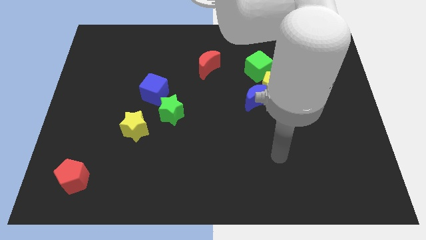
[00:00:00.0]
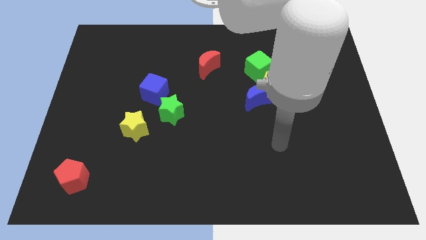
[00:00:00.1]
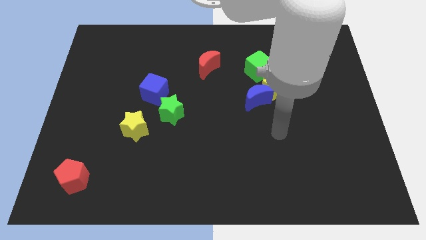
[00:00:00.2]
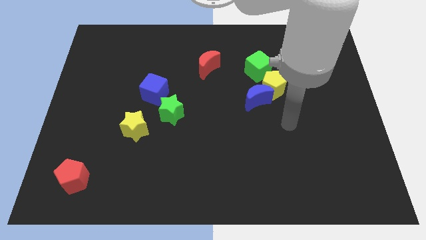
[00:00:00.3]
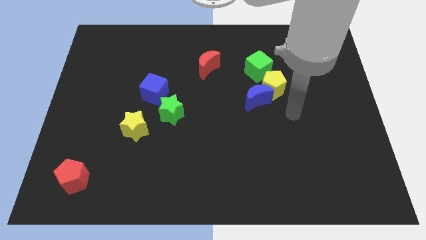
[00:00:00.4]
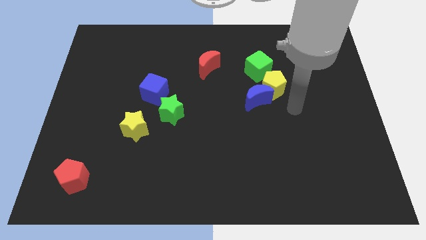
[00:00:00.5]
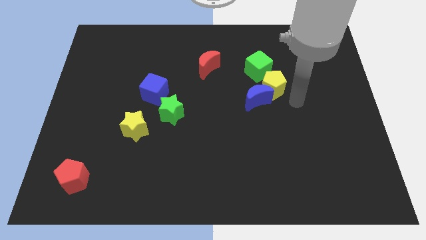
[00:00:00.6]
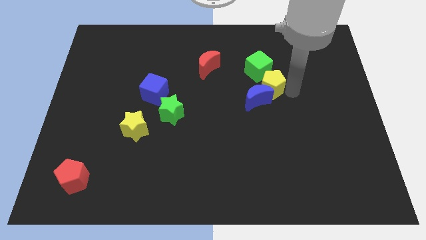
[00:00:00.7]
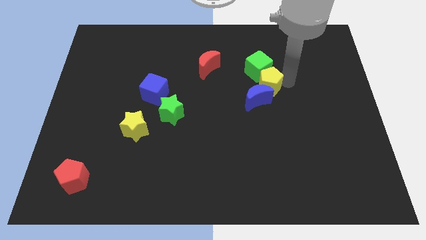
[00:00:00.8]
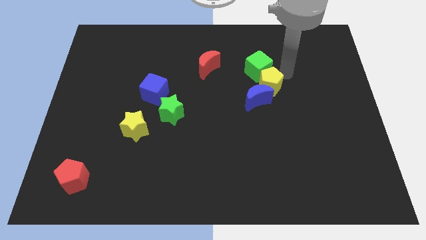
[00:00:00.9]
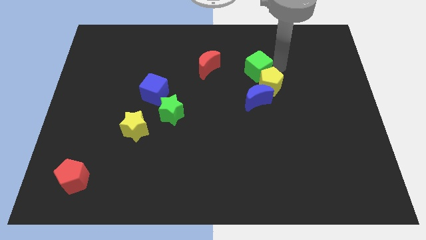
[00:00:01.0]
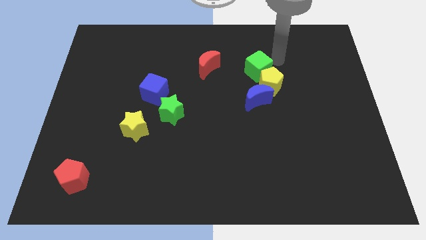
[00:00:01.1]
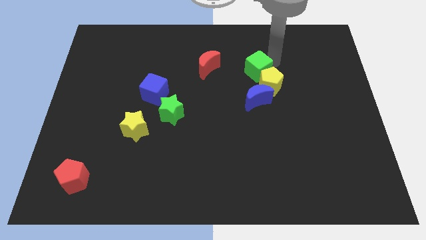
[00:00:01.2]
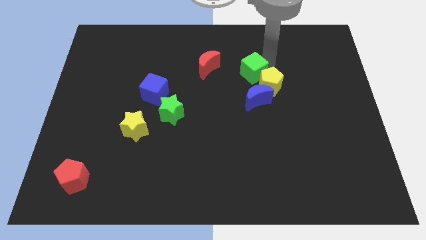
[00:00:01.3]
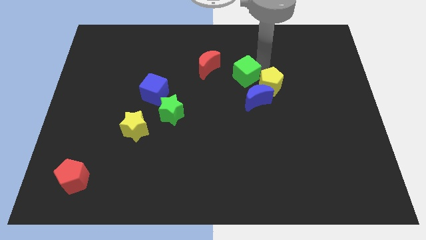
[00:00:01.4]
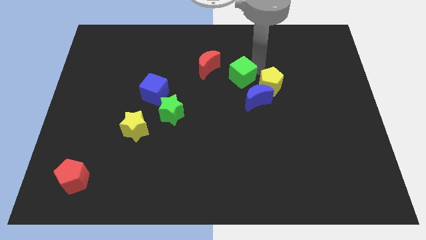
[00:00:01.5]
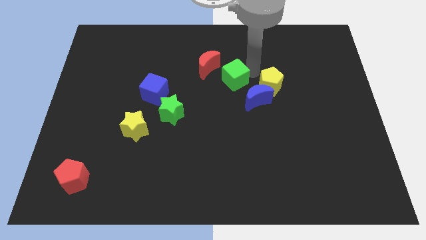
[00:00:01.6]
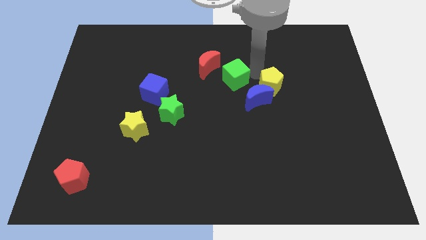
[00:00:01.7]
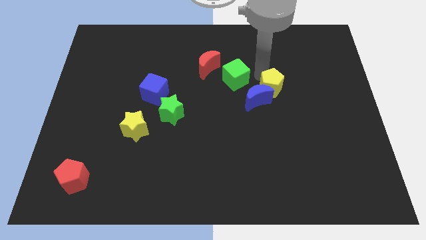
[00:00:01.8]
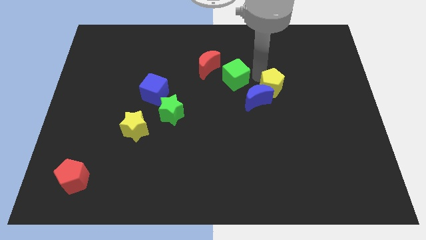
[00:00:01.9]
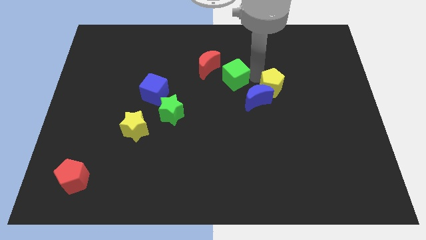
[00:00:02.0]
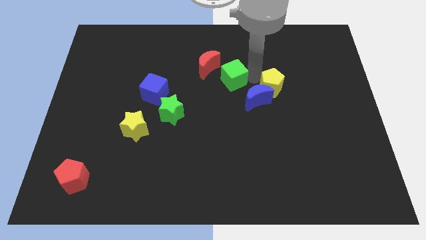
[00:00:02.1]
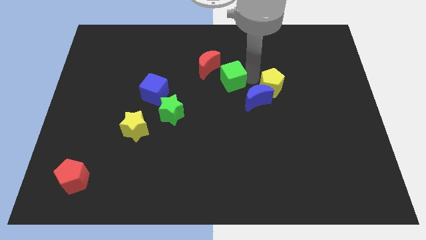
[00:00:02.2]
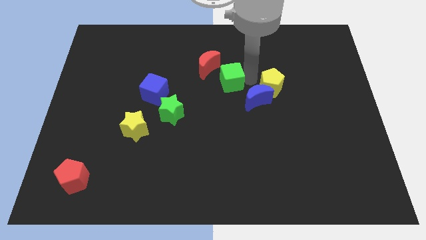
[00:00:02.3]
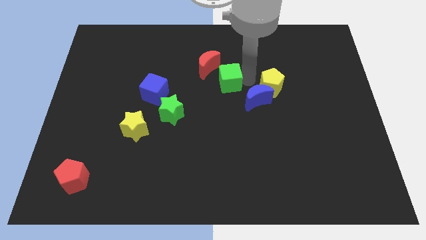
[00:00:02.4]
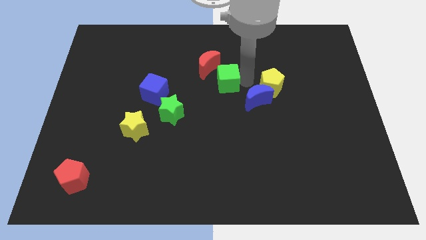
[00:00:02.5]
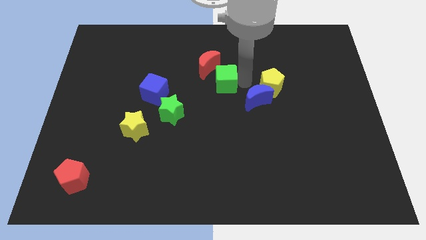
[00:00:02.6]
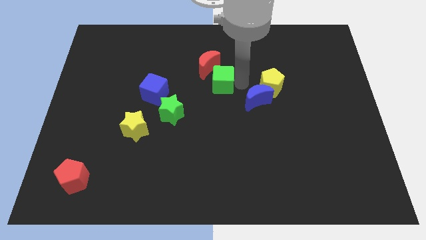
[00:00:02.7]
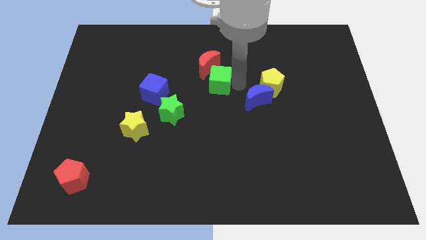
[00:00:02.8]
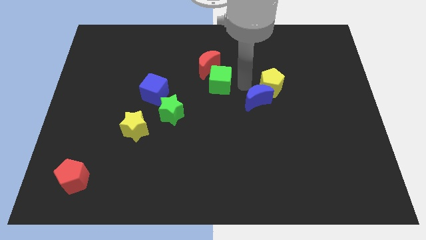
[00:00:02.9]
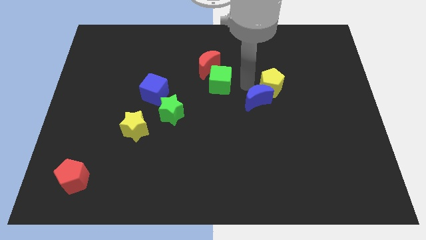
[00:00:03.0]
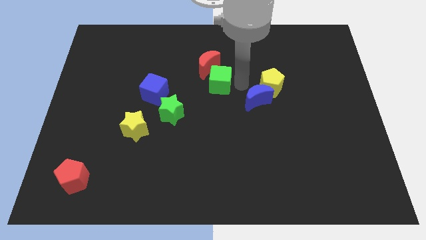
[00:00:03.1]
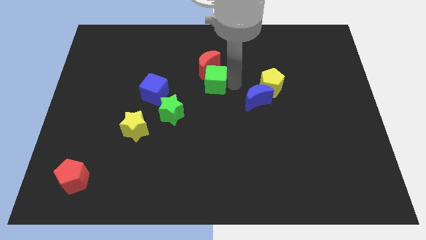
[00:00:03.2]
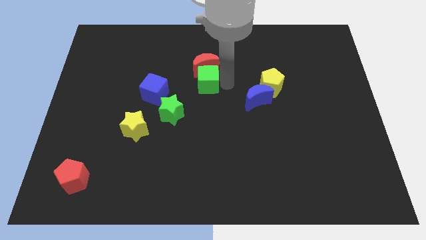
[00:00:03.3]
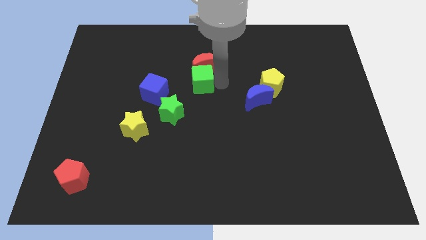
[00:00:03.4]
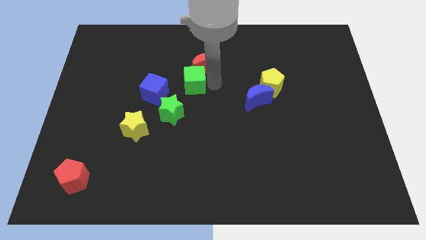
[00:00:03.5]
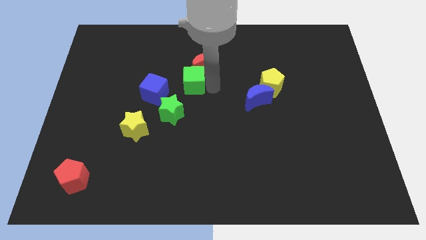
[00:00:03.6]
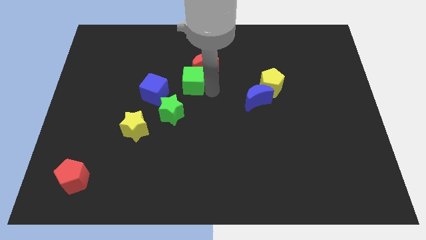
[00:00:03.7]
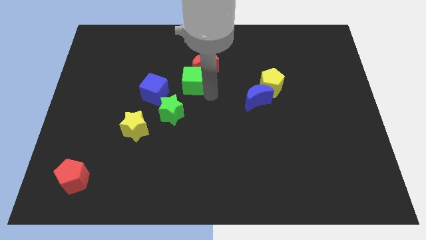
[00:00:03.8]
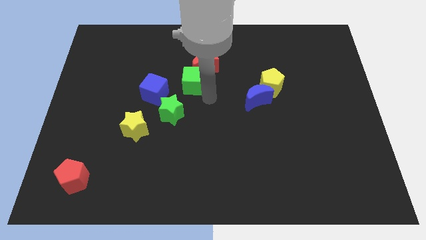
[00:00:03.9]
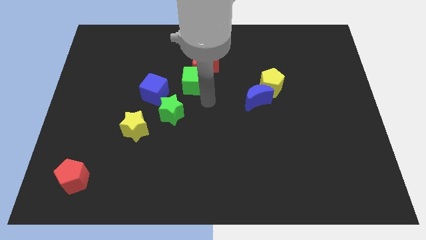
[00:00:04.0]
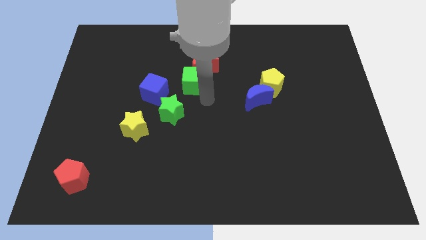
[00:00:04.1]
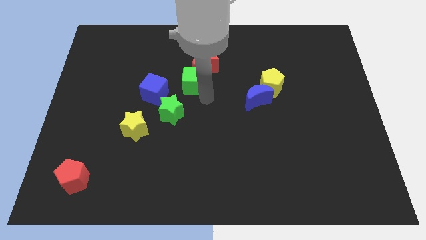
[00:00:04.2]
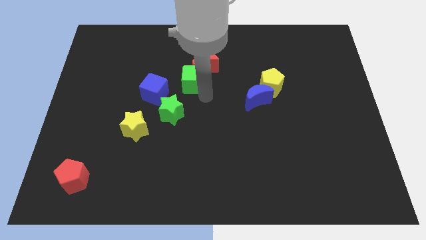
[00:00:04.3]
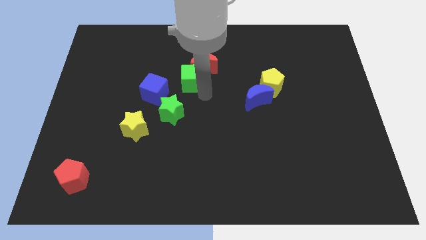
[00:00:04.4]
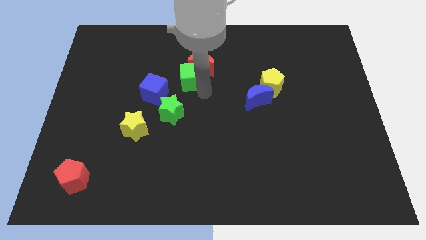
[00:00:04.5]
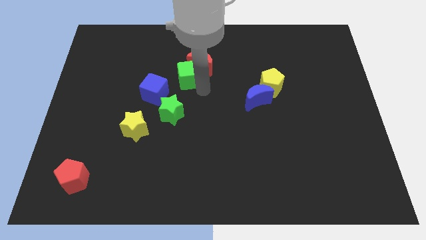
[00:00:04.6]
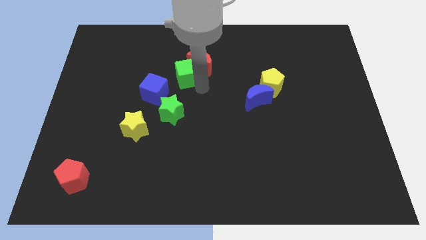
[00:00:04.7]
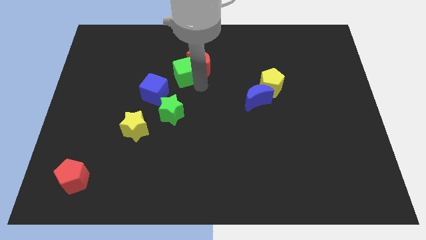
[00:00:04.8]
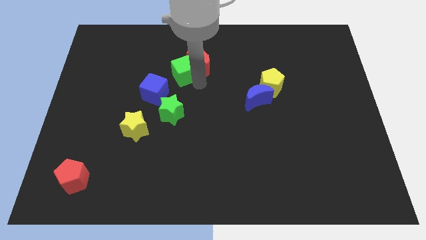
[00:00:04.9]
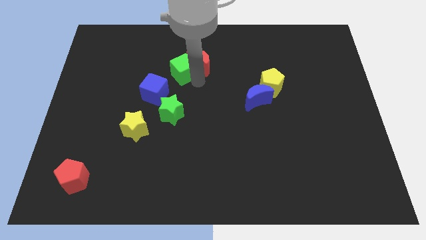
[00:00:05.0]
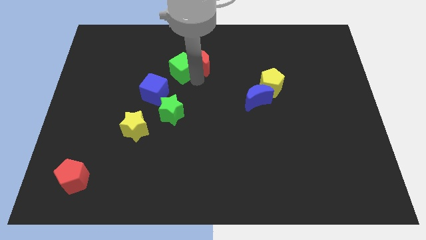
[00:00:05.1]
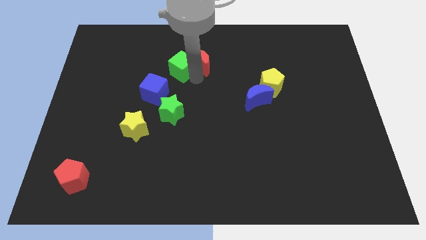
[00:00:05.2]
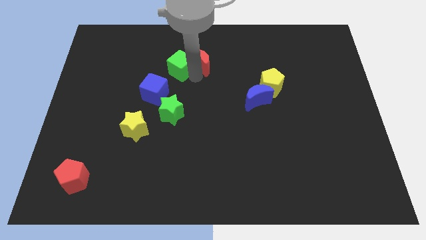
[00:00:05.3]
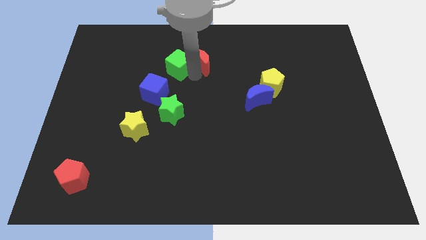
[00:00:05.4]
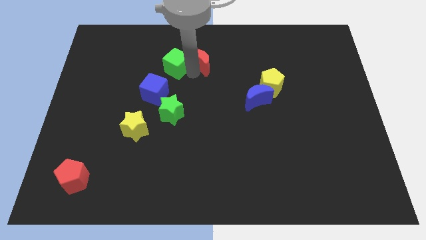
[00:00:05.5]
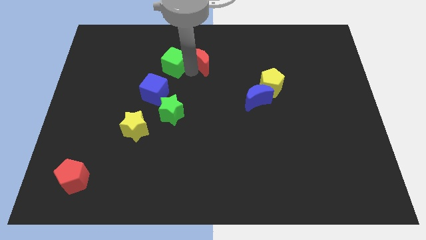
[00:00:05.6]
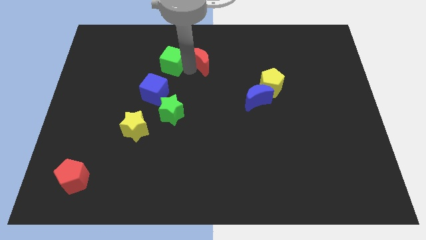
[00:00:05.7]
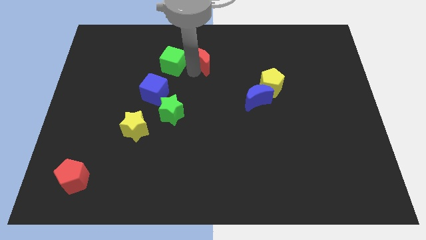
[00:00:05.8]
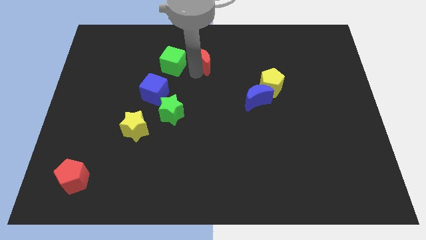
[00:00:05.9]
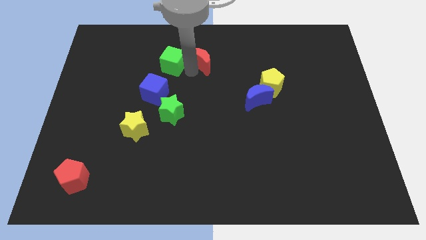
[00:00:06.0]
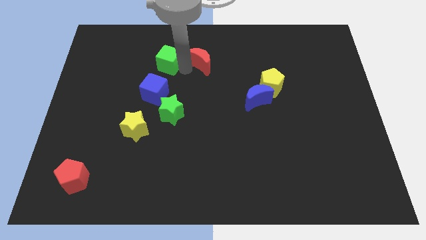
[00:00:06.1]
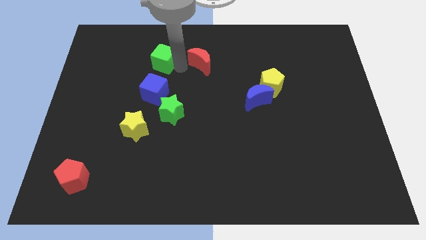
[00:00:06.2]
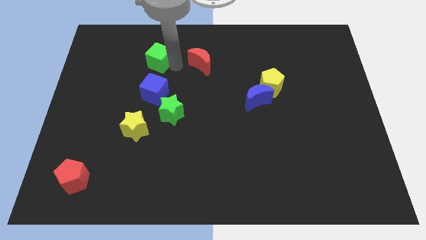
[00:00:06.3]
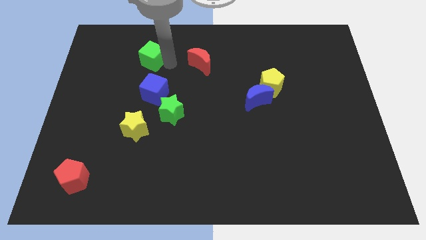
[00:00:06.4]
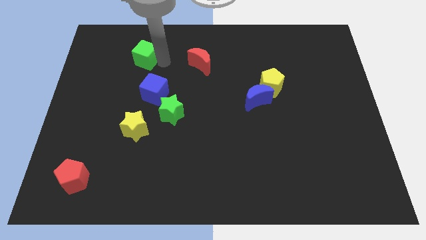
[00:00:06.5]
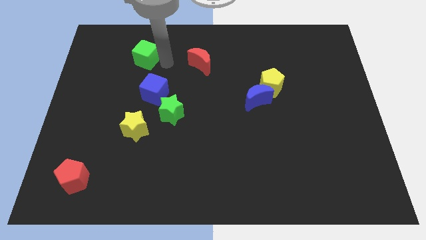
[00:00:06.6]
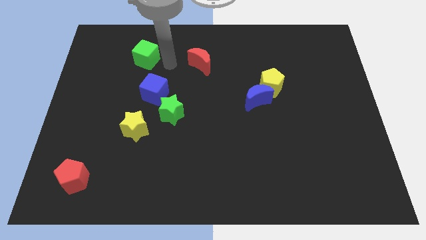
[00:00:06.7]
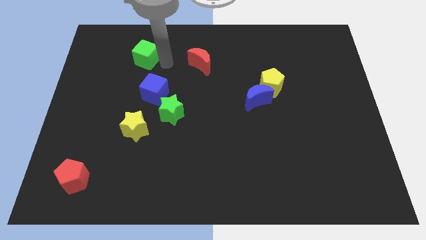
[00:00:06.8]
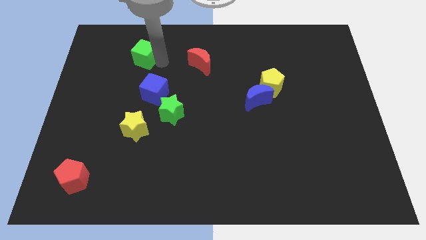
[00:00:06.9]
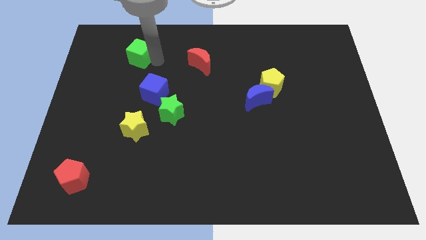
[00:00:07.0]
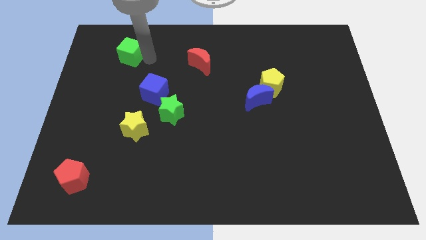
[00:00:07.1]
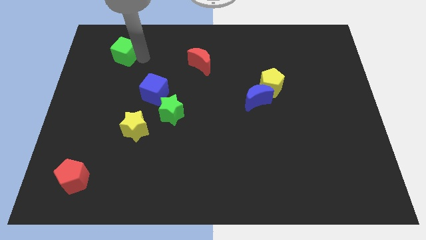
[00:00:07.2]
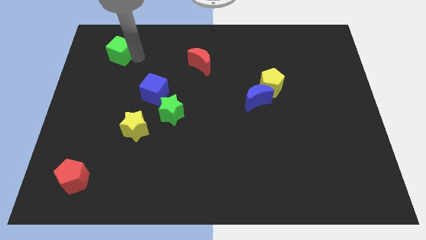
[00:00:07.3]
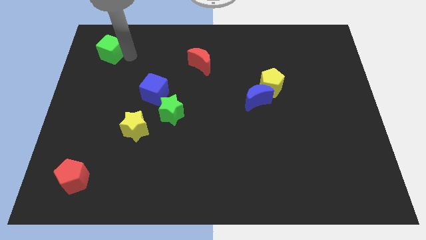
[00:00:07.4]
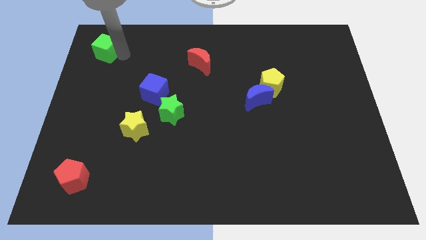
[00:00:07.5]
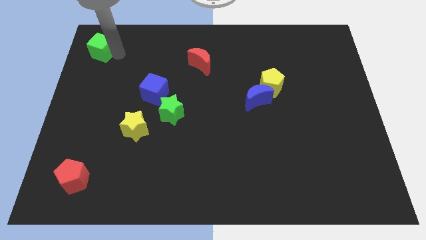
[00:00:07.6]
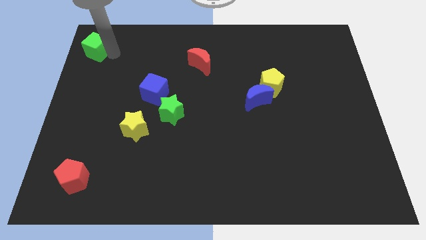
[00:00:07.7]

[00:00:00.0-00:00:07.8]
push the green cube to the top left corner
